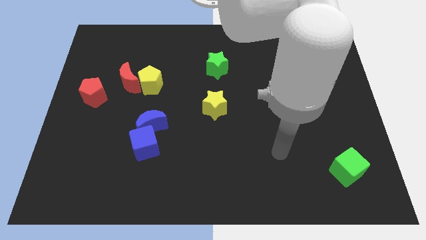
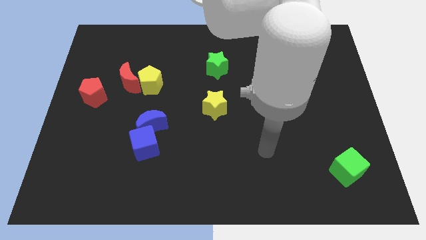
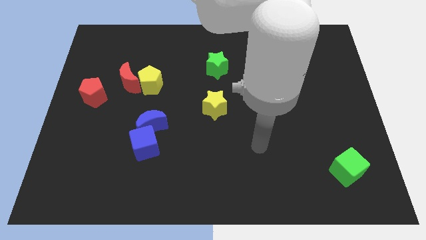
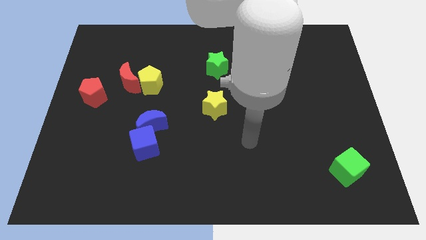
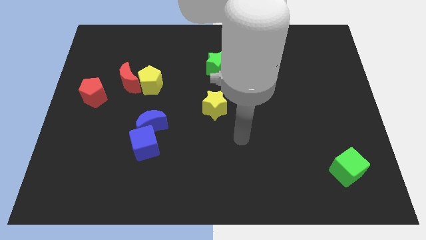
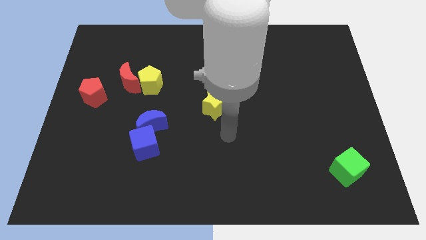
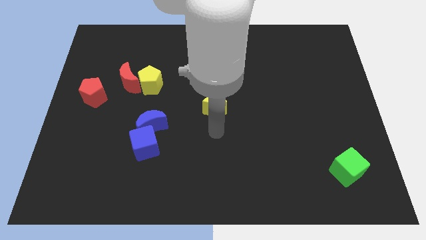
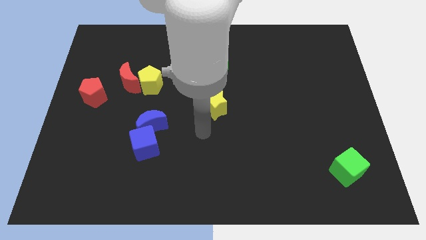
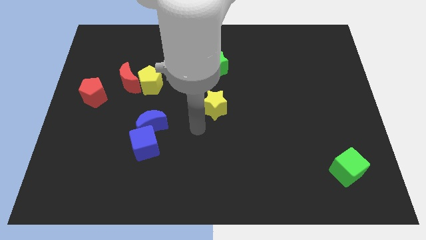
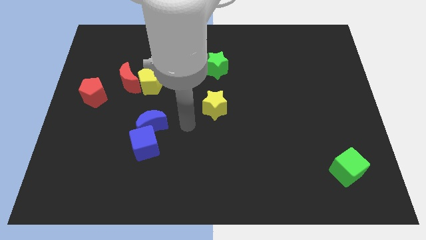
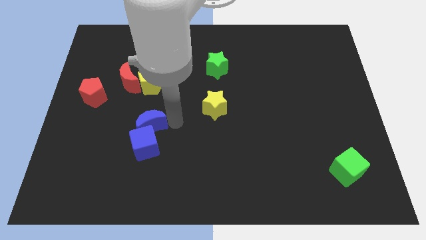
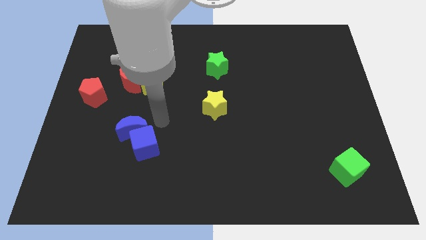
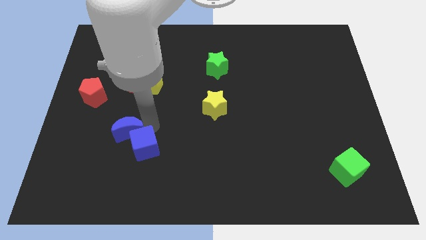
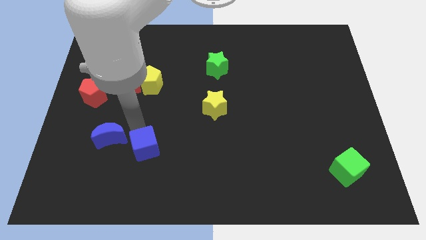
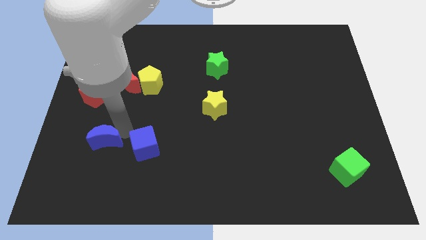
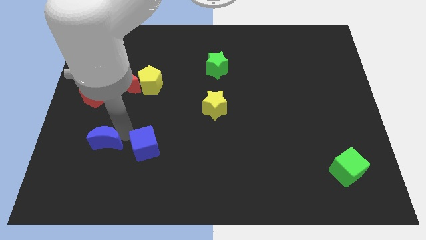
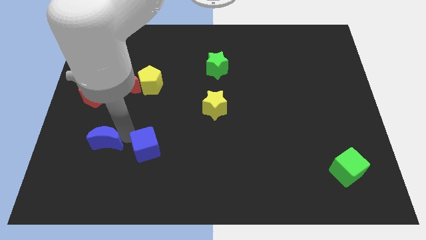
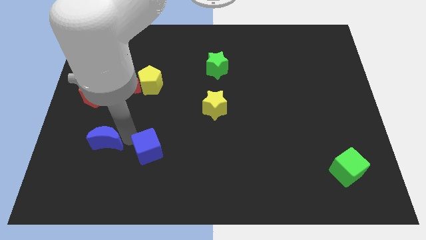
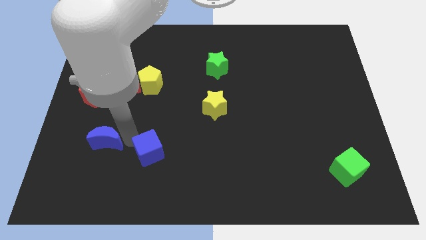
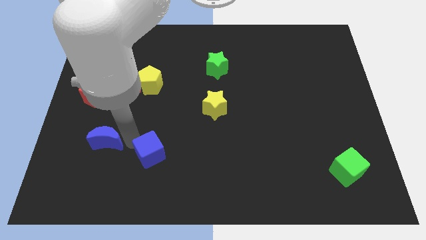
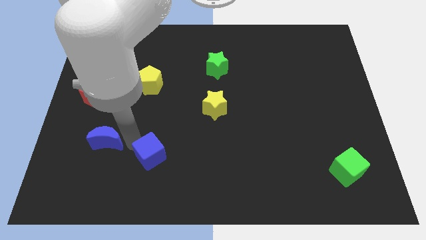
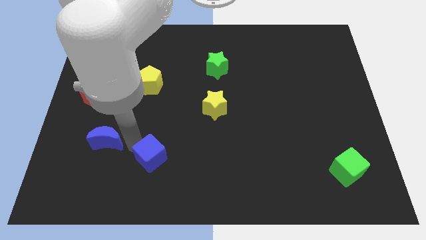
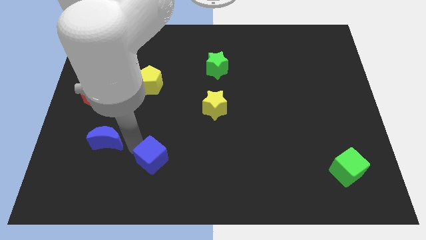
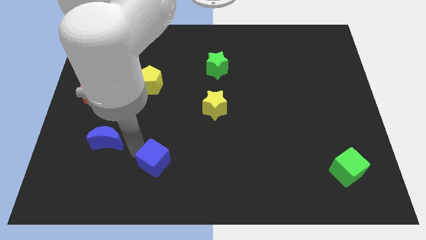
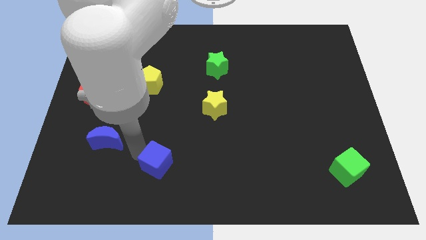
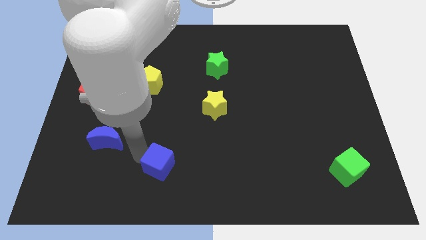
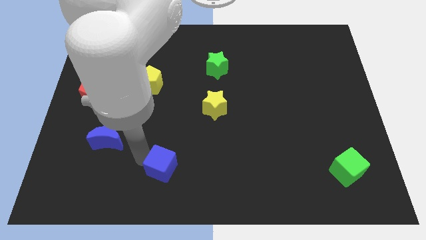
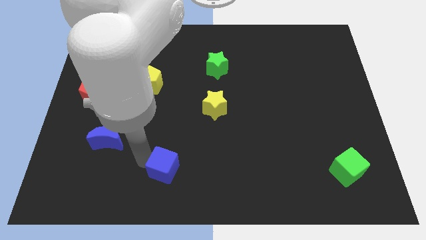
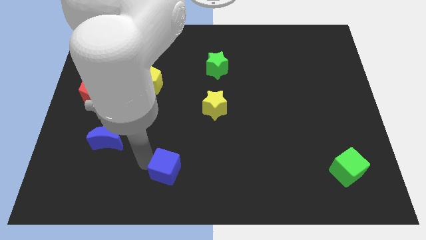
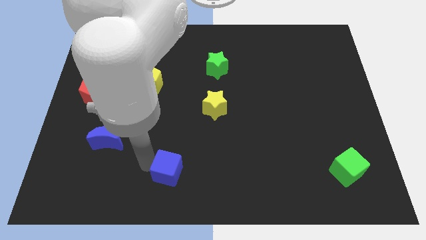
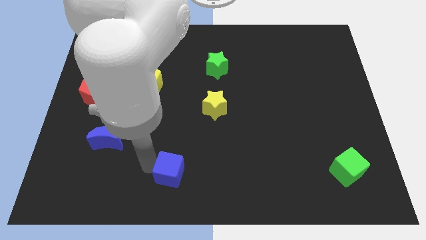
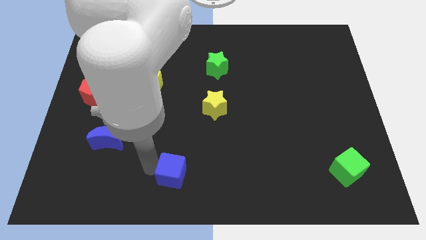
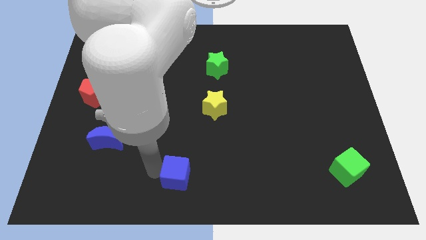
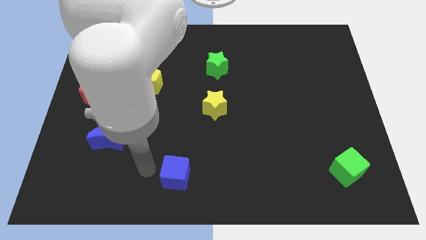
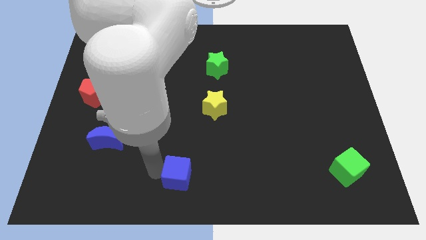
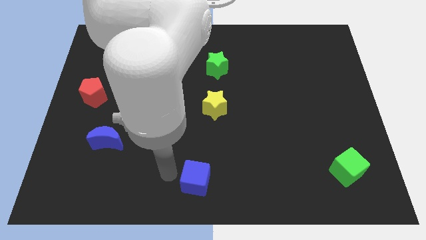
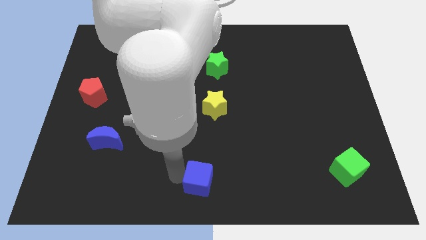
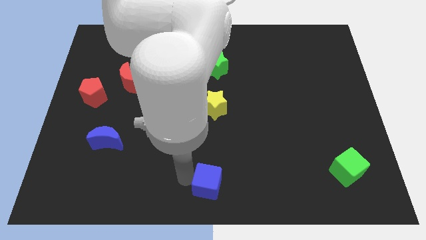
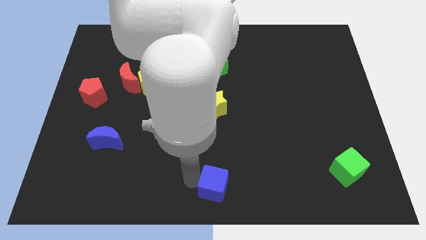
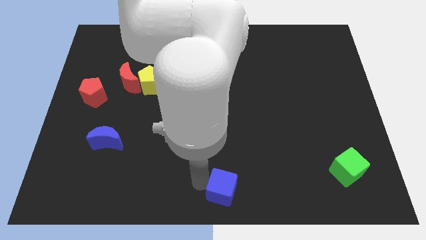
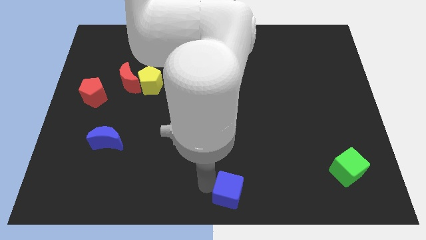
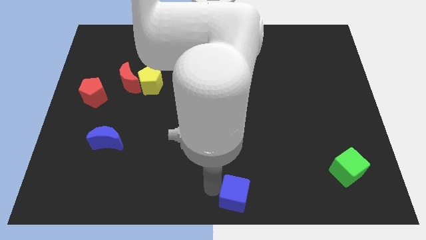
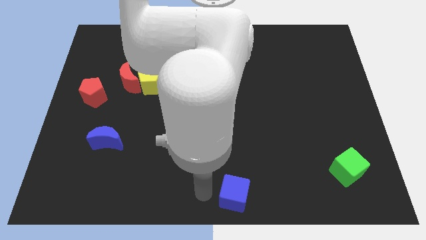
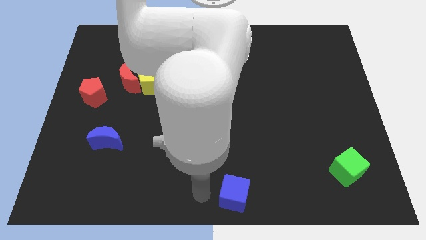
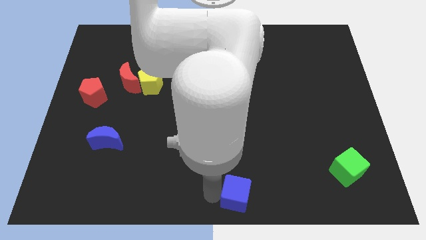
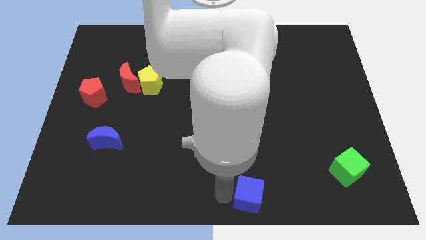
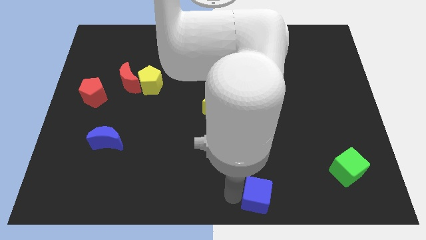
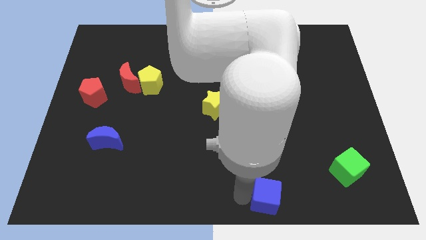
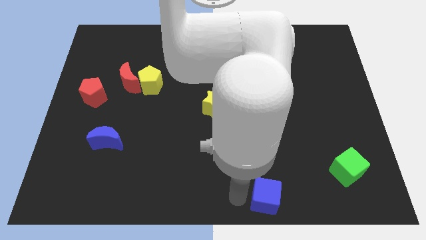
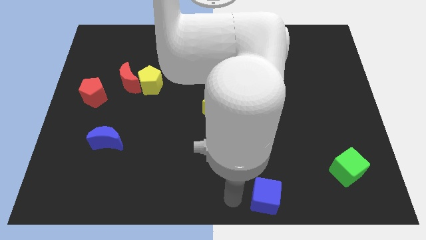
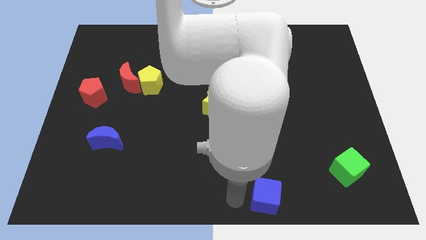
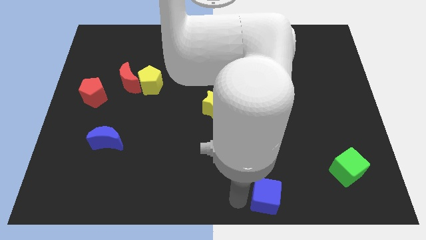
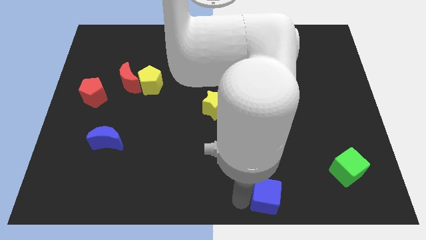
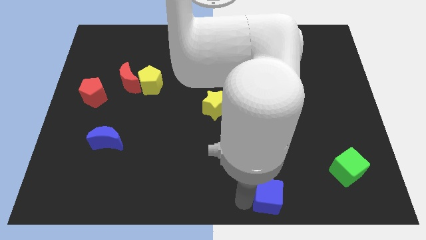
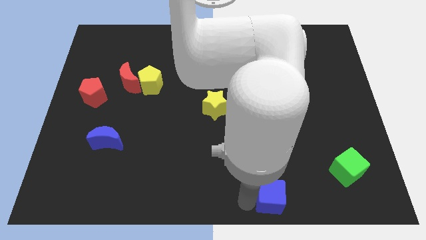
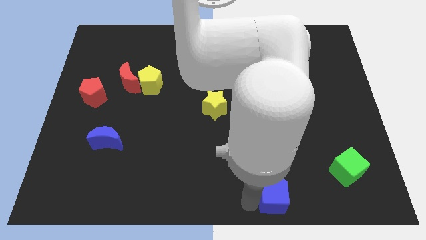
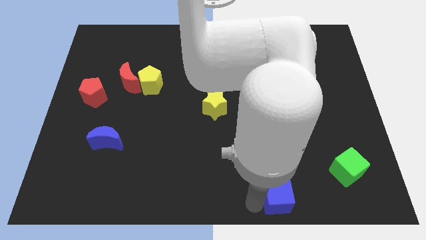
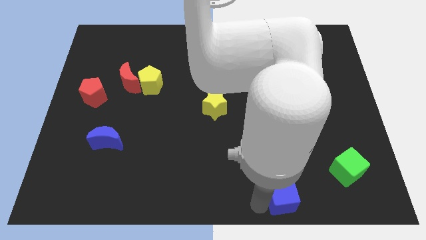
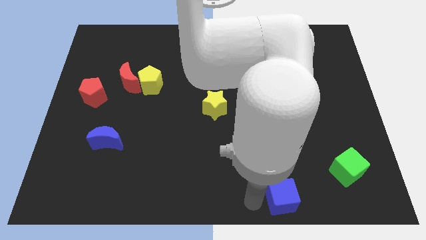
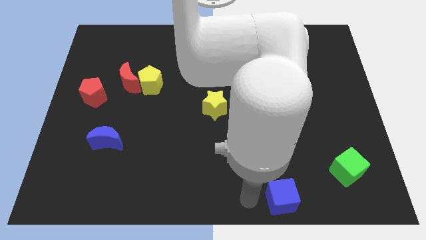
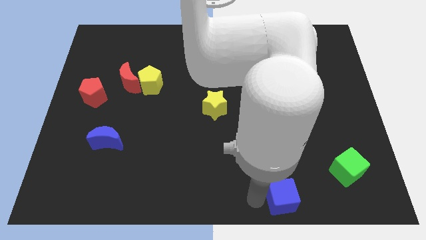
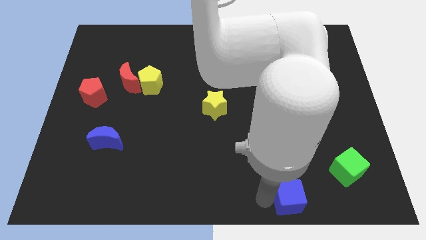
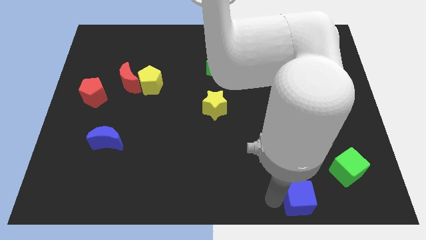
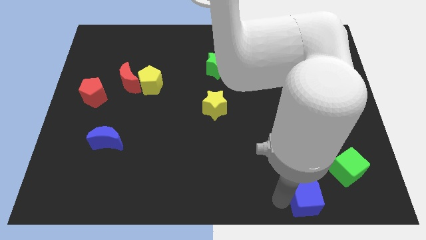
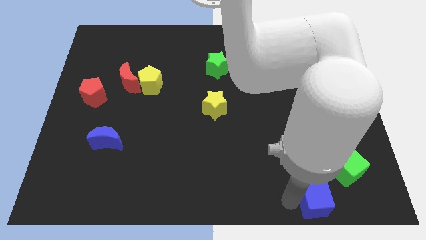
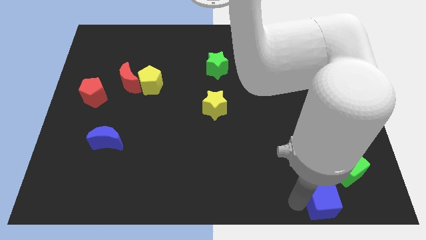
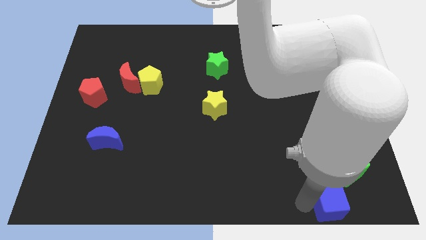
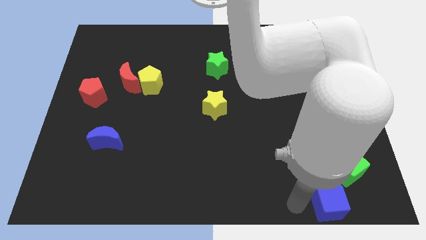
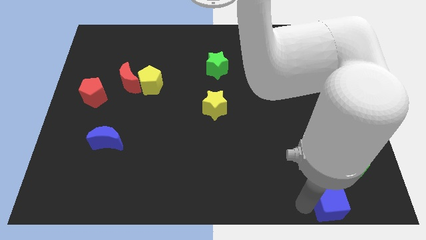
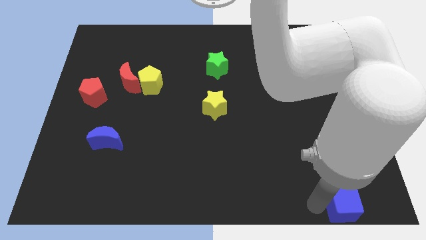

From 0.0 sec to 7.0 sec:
slide the blue cube to the bottom right
